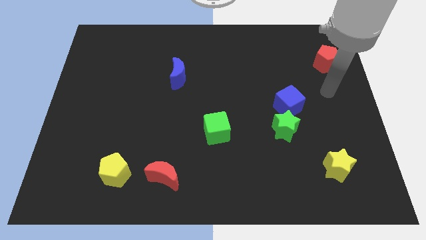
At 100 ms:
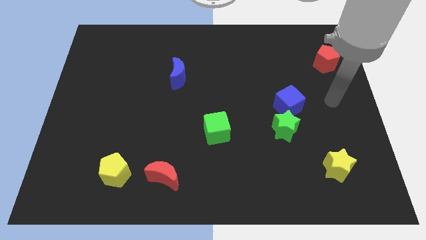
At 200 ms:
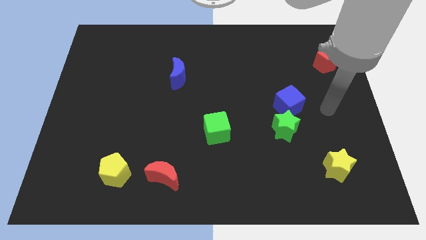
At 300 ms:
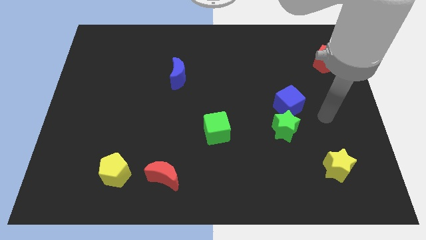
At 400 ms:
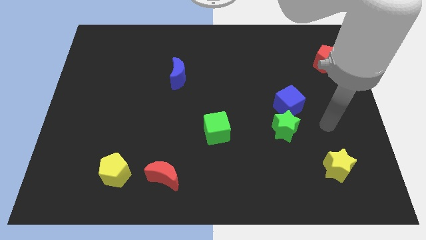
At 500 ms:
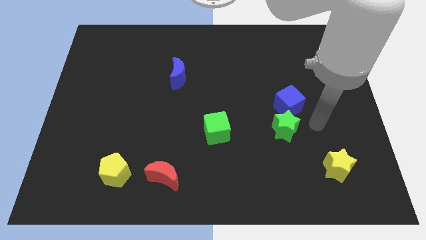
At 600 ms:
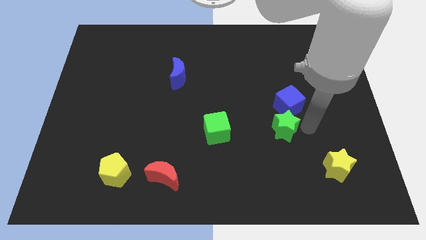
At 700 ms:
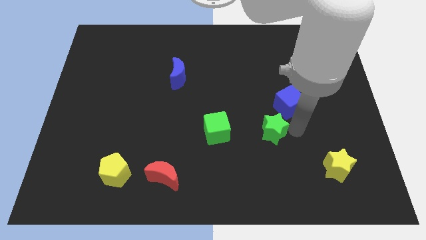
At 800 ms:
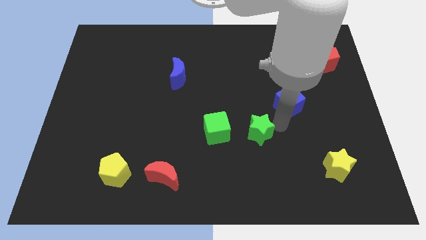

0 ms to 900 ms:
pull the blue cube apart from the green star

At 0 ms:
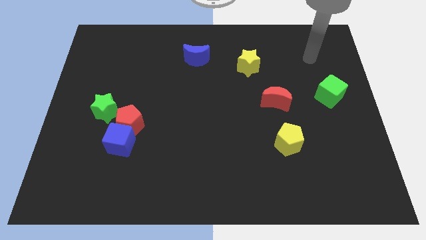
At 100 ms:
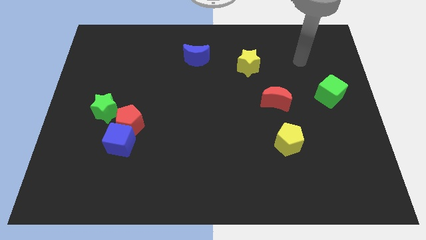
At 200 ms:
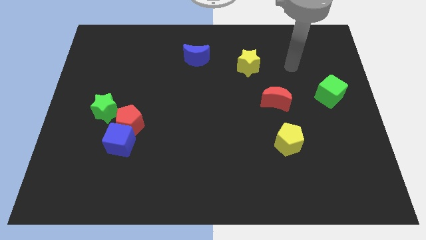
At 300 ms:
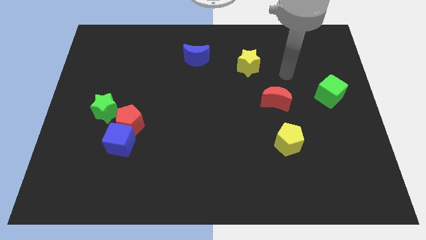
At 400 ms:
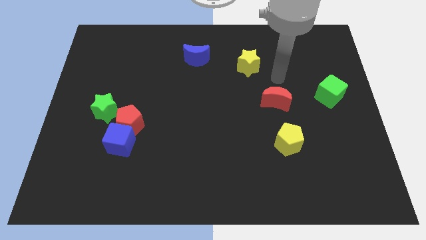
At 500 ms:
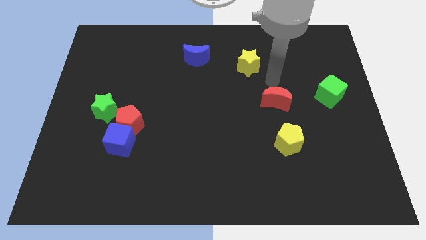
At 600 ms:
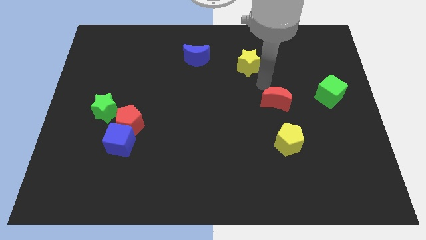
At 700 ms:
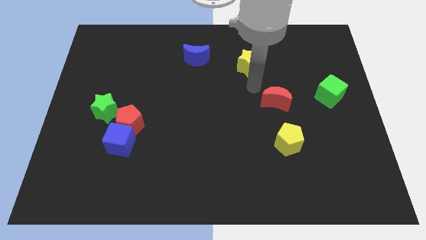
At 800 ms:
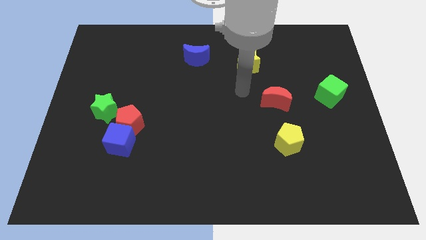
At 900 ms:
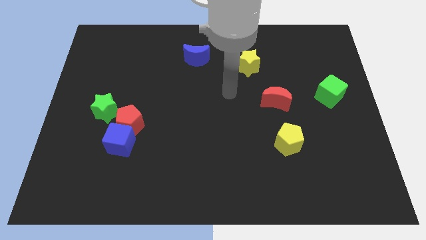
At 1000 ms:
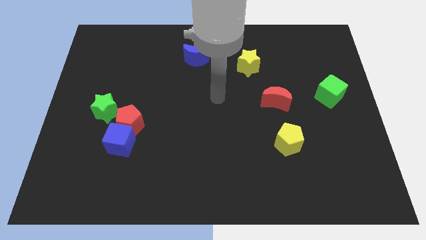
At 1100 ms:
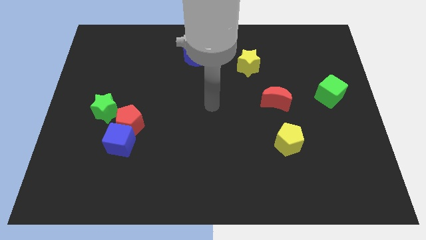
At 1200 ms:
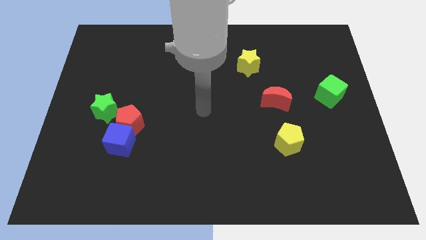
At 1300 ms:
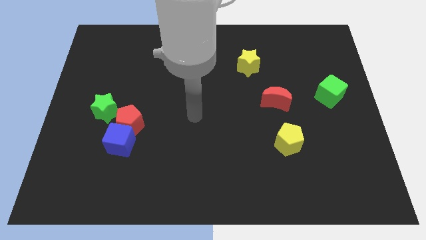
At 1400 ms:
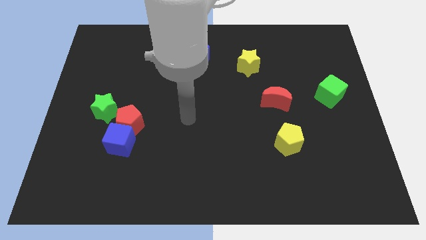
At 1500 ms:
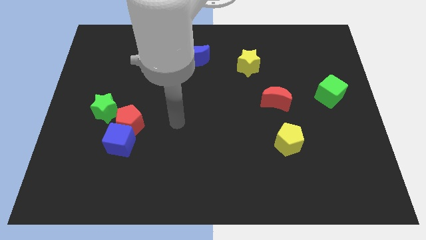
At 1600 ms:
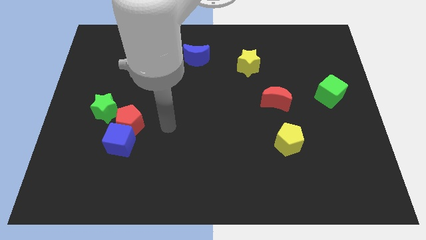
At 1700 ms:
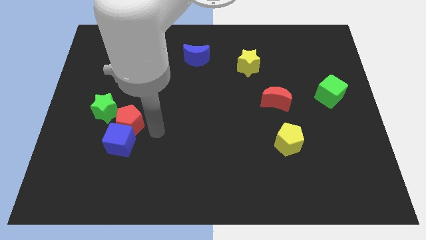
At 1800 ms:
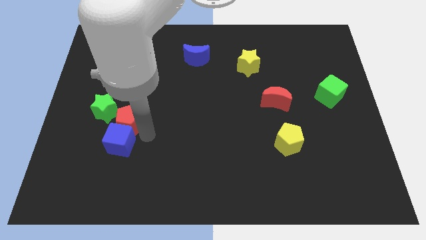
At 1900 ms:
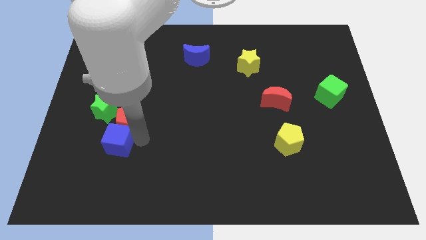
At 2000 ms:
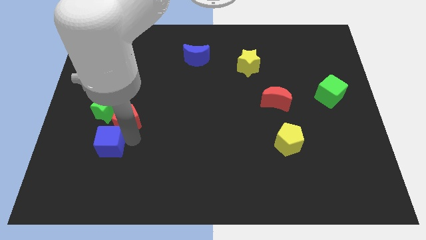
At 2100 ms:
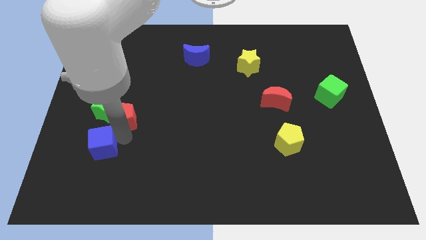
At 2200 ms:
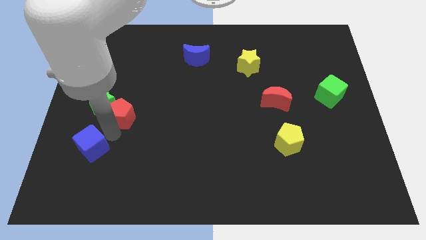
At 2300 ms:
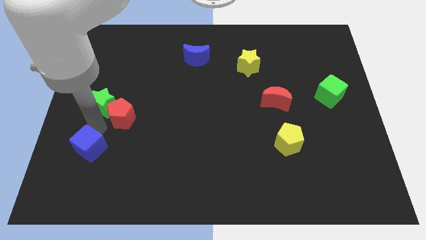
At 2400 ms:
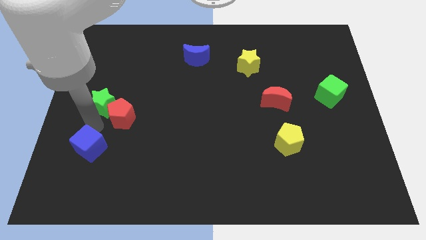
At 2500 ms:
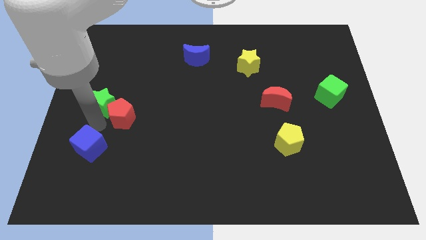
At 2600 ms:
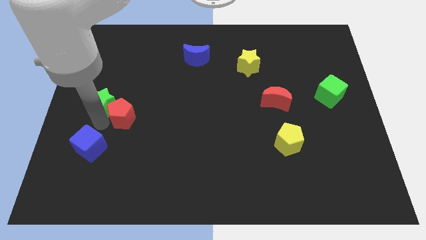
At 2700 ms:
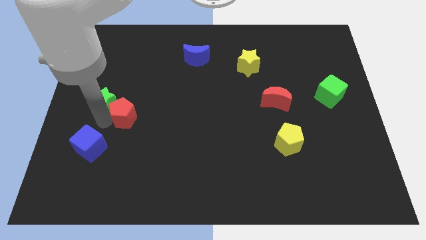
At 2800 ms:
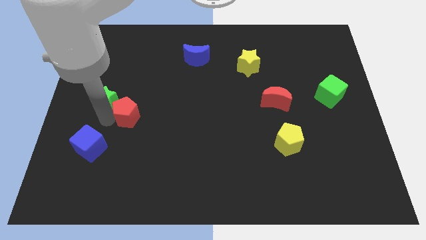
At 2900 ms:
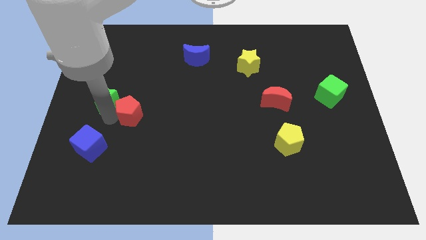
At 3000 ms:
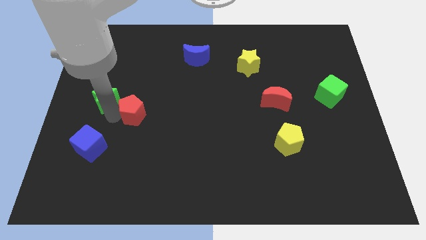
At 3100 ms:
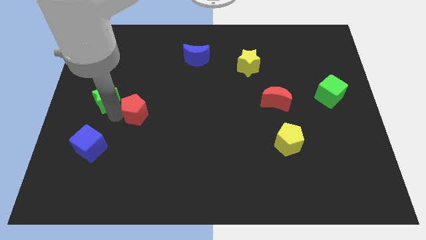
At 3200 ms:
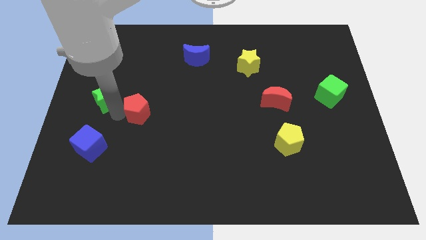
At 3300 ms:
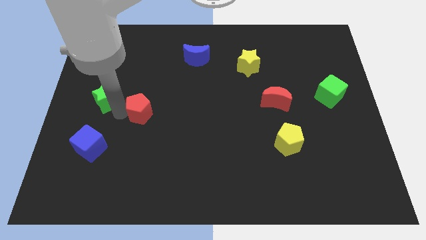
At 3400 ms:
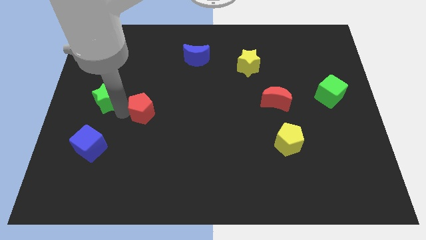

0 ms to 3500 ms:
separate the red pentagon from the blue cube and green star

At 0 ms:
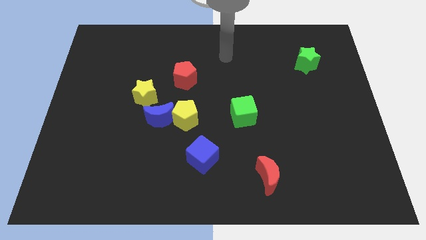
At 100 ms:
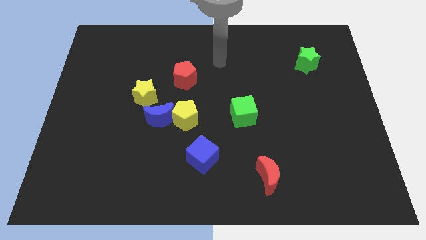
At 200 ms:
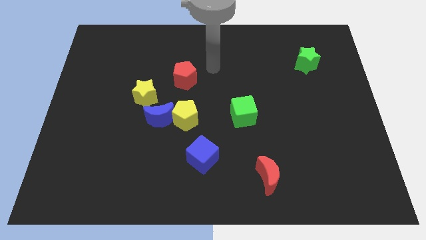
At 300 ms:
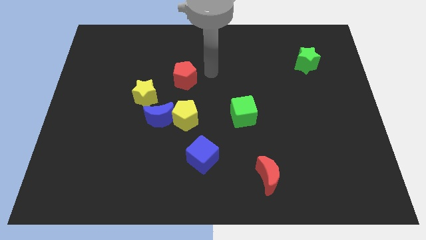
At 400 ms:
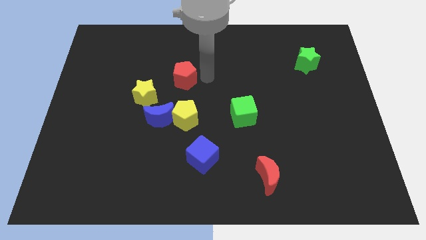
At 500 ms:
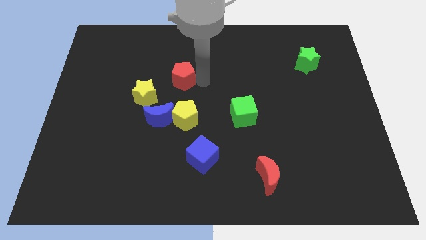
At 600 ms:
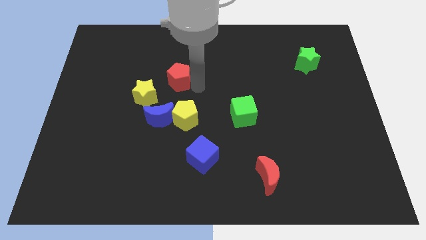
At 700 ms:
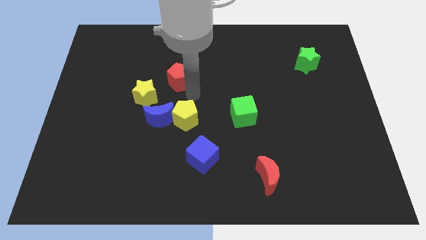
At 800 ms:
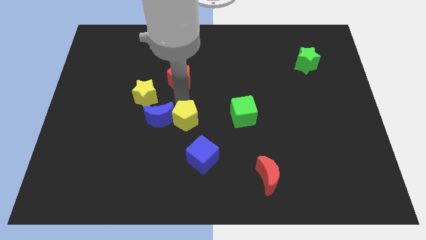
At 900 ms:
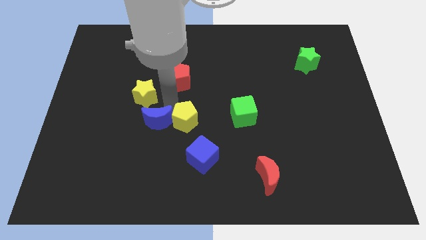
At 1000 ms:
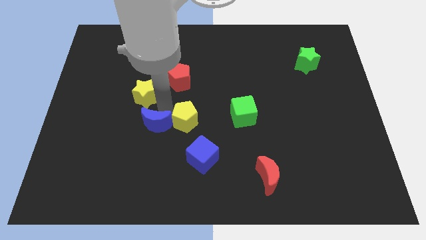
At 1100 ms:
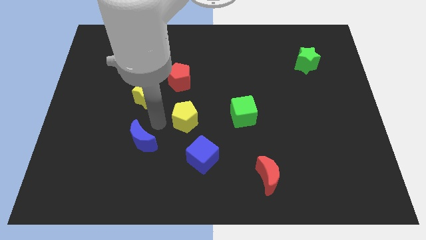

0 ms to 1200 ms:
move the yellow pentagon away from the blue moon

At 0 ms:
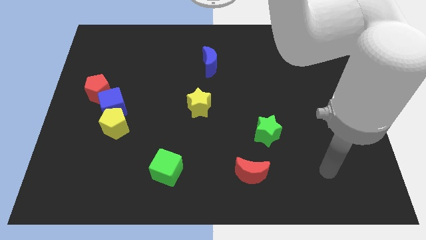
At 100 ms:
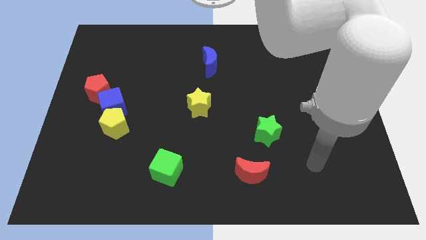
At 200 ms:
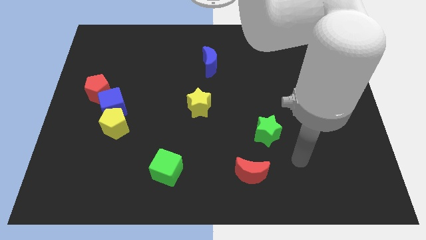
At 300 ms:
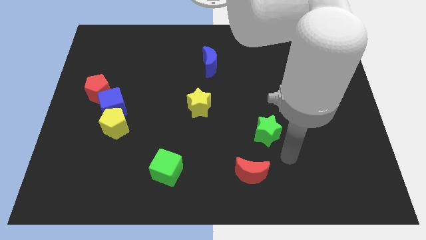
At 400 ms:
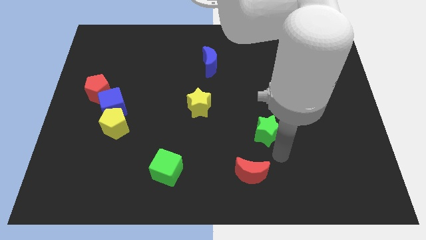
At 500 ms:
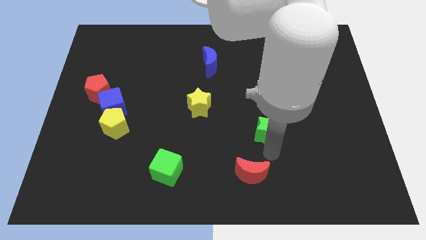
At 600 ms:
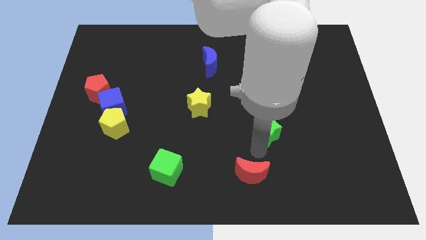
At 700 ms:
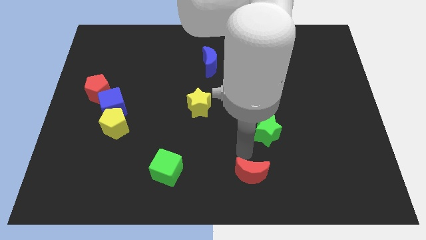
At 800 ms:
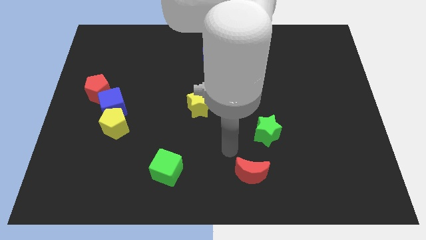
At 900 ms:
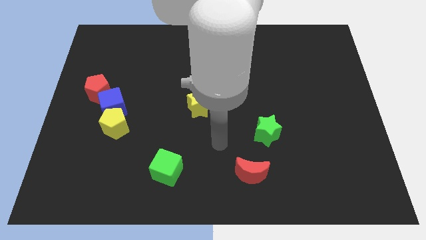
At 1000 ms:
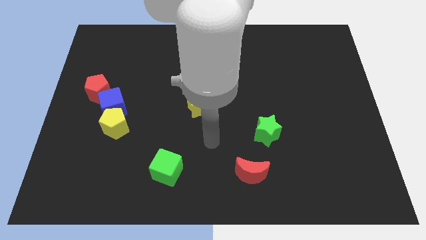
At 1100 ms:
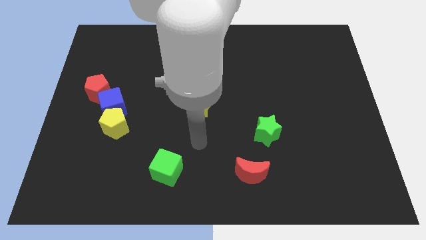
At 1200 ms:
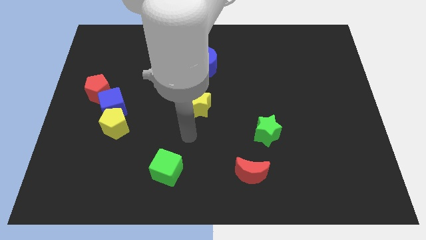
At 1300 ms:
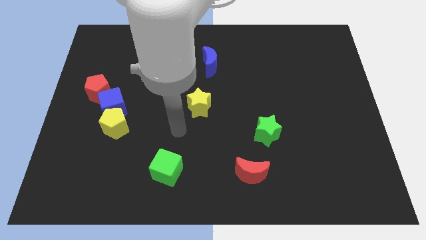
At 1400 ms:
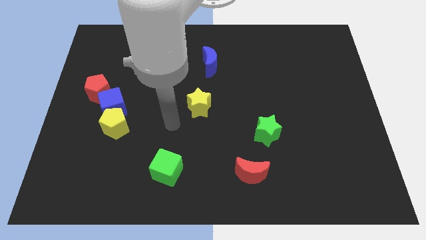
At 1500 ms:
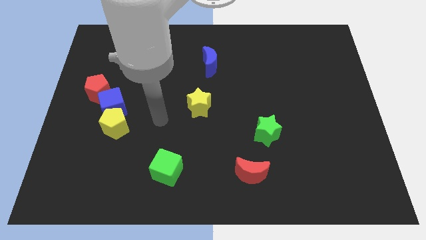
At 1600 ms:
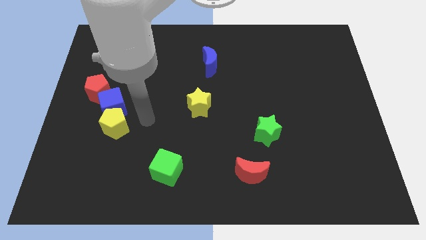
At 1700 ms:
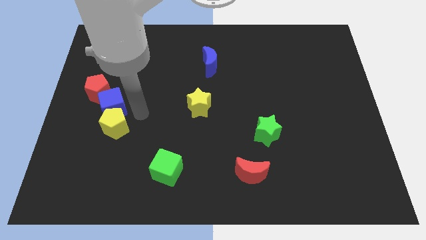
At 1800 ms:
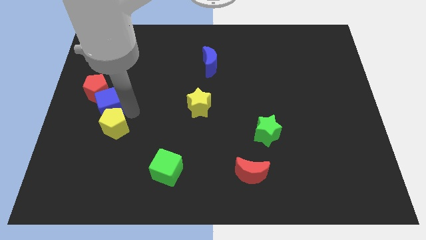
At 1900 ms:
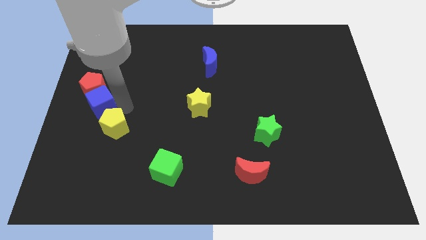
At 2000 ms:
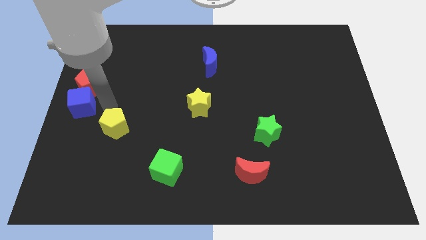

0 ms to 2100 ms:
move the yellow pentagon away from the blue cube

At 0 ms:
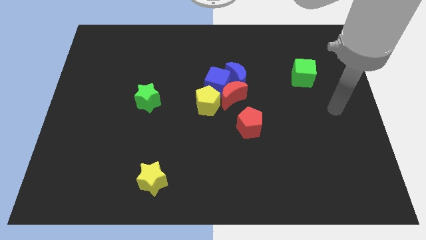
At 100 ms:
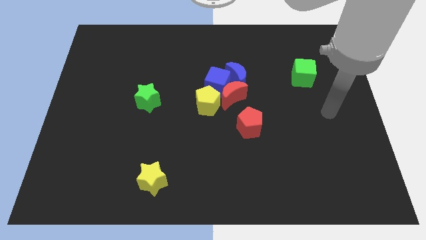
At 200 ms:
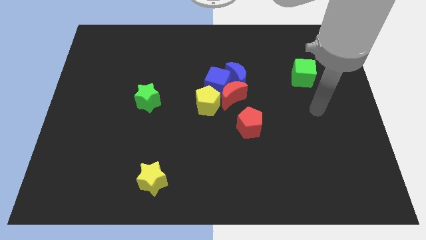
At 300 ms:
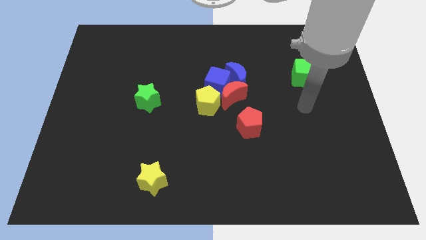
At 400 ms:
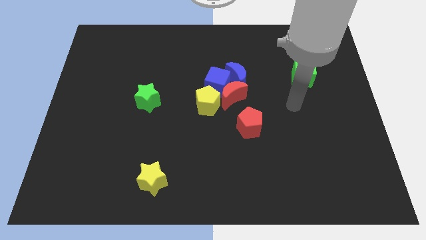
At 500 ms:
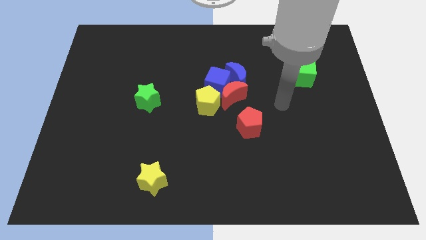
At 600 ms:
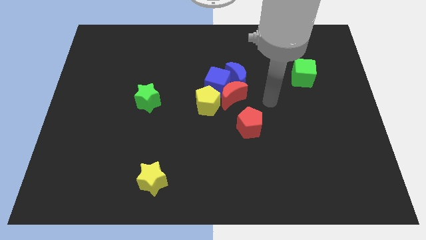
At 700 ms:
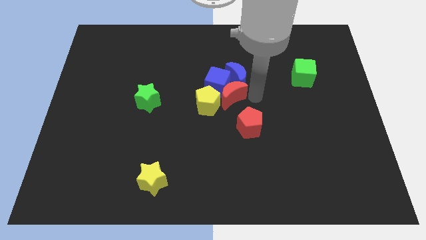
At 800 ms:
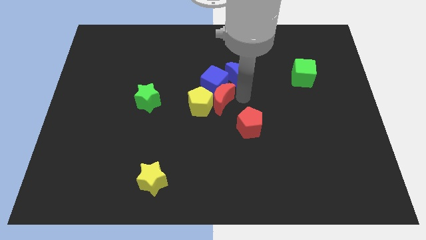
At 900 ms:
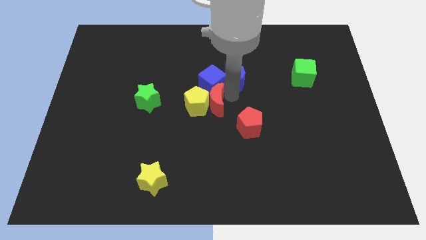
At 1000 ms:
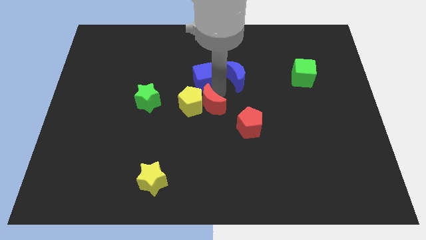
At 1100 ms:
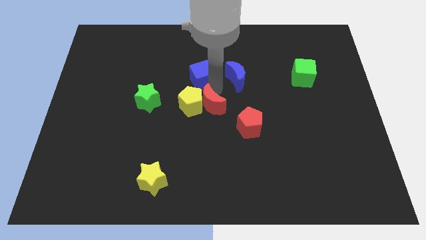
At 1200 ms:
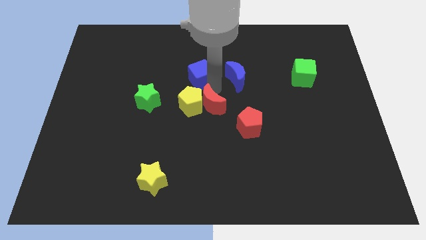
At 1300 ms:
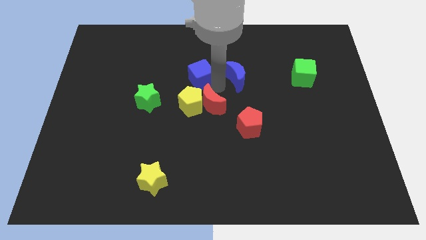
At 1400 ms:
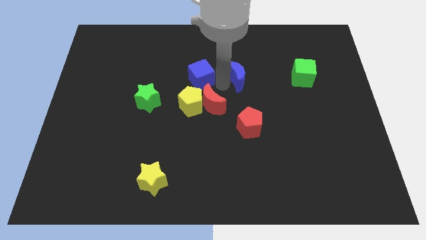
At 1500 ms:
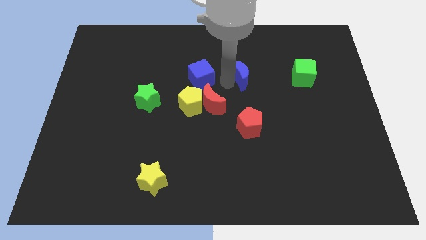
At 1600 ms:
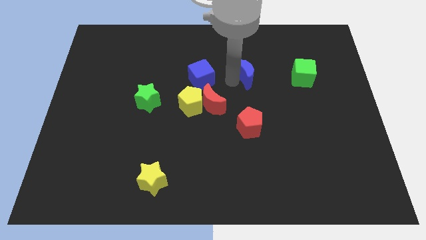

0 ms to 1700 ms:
pull the blue moon apart from the blue cube and red moon

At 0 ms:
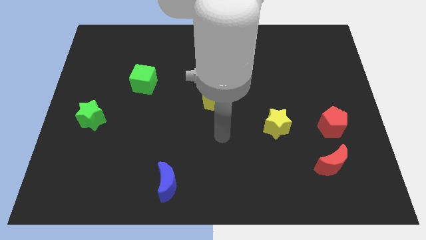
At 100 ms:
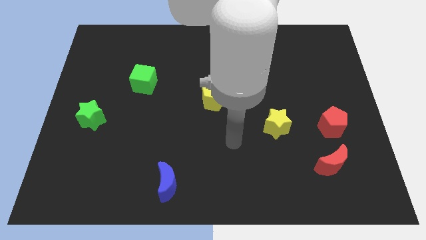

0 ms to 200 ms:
separate the red moon from the red pentagon
